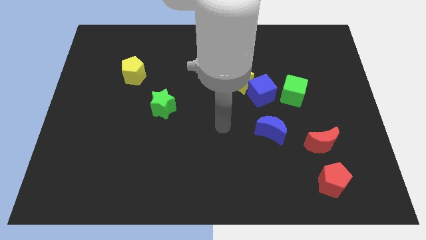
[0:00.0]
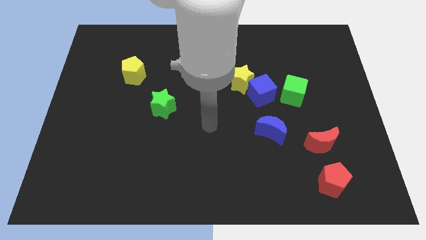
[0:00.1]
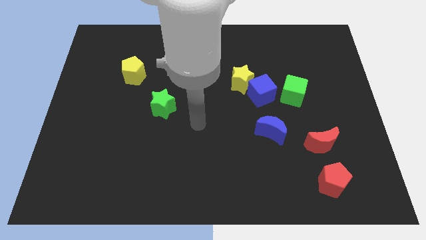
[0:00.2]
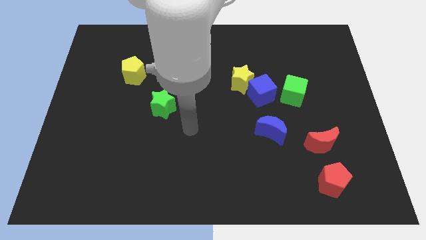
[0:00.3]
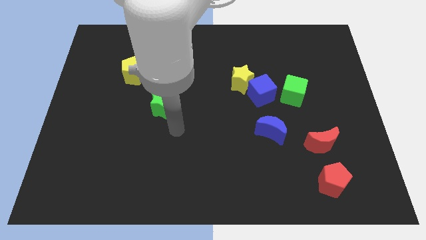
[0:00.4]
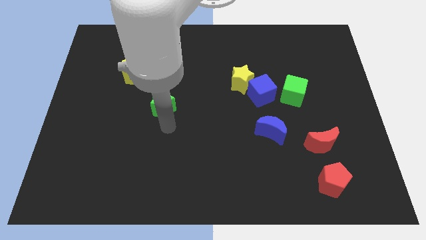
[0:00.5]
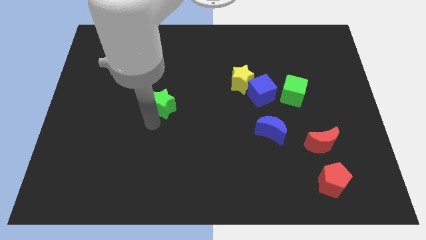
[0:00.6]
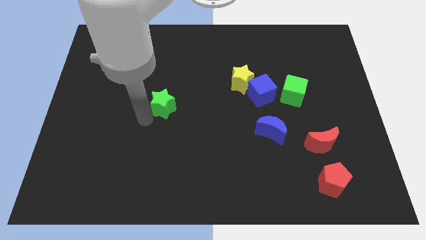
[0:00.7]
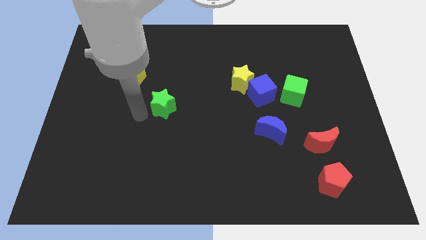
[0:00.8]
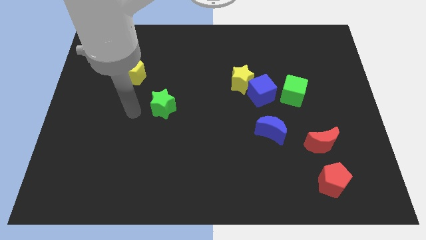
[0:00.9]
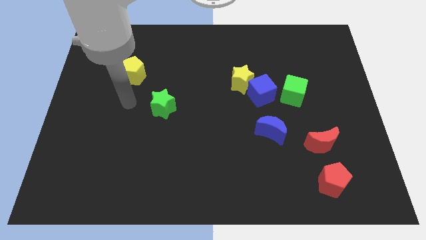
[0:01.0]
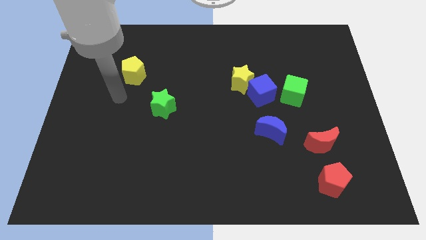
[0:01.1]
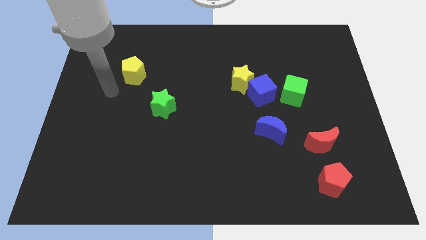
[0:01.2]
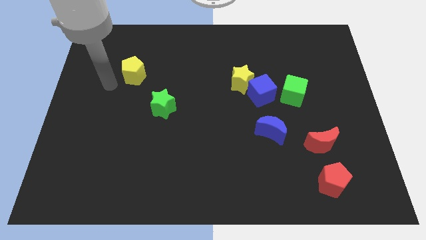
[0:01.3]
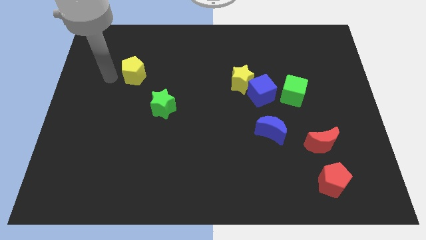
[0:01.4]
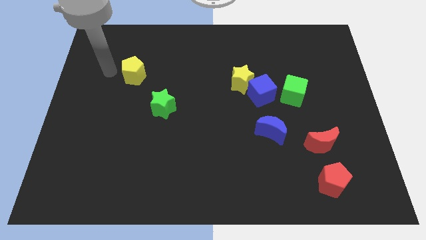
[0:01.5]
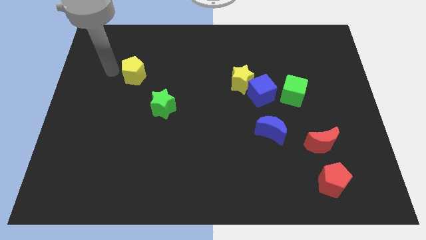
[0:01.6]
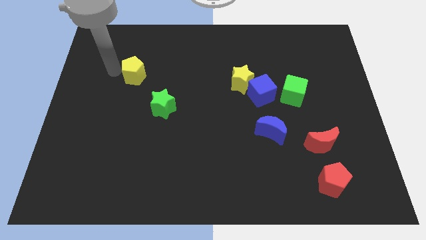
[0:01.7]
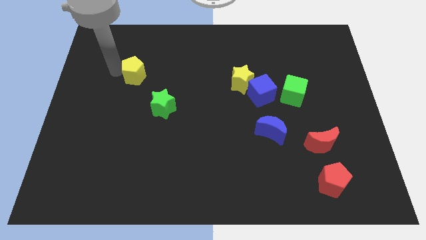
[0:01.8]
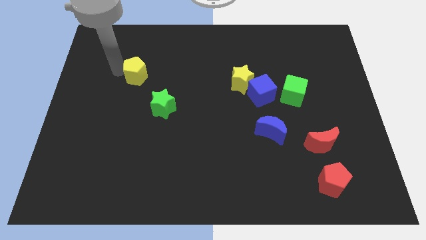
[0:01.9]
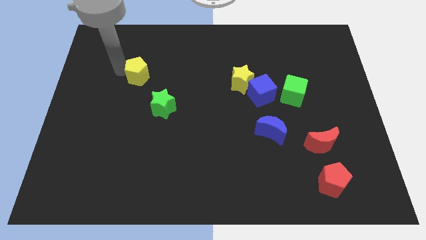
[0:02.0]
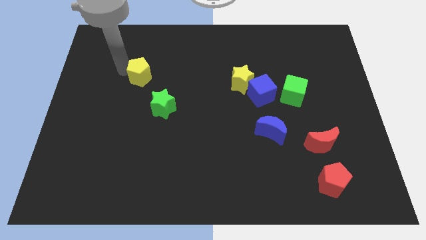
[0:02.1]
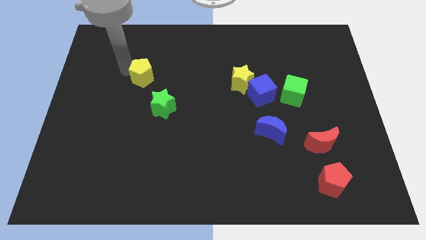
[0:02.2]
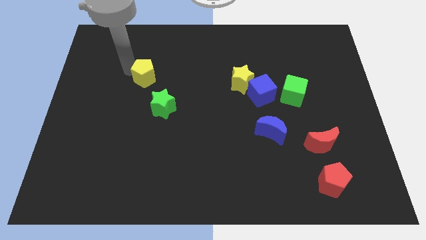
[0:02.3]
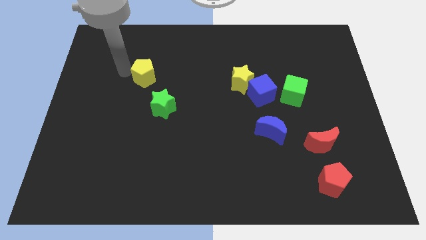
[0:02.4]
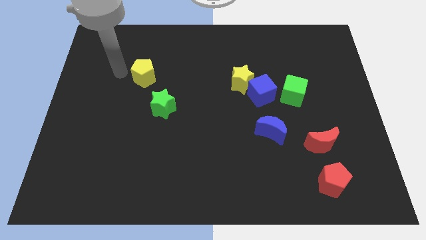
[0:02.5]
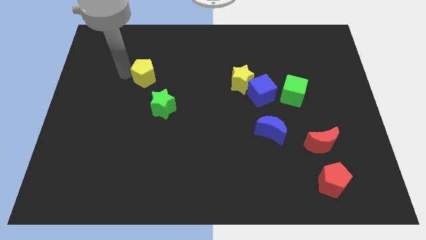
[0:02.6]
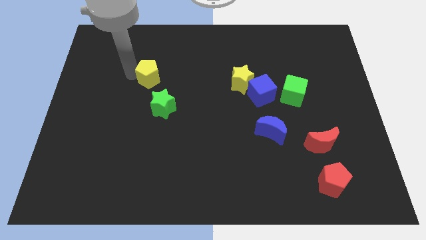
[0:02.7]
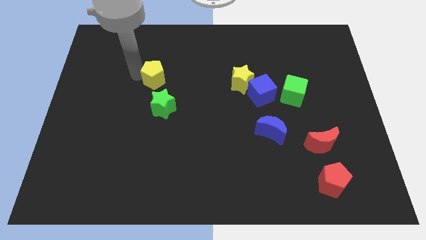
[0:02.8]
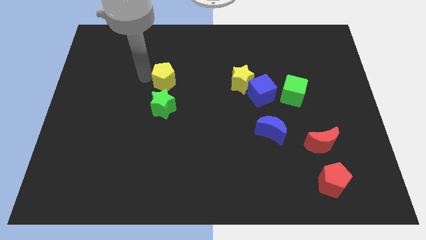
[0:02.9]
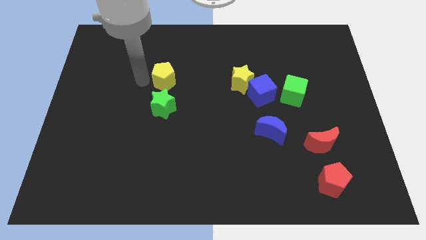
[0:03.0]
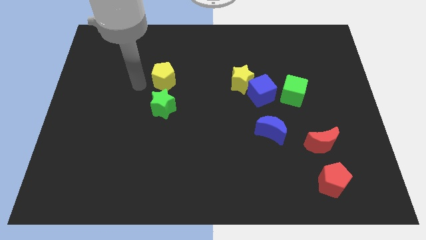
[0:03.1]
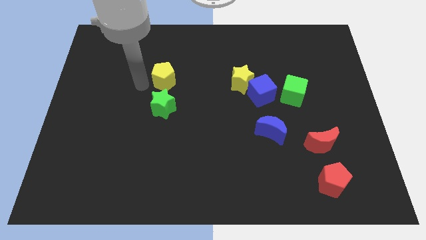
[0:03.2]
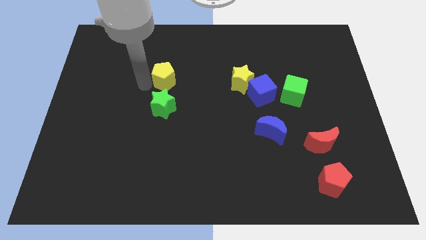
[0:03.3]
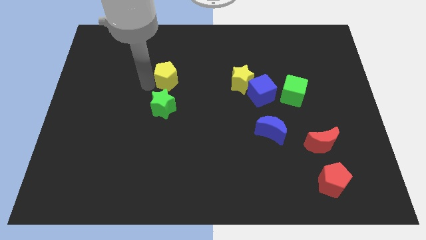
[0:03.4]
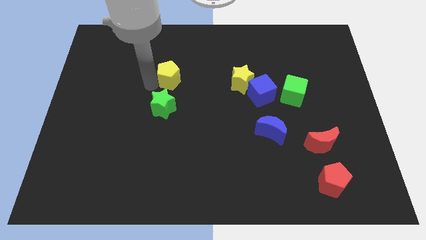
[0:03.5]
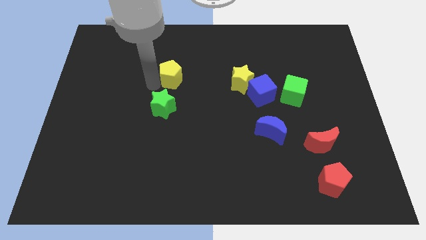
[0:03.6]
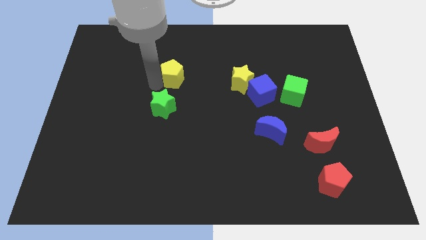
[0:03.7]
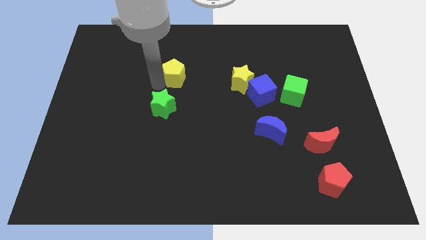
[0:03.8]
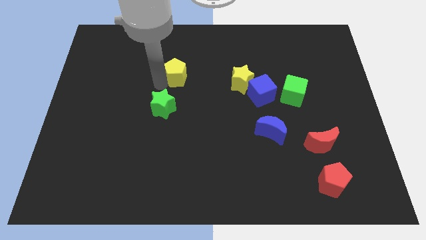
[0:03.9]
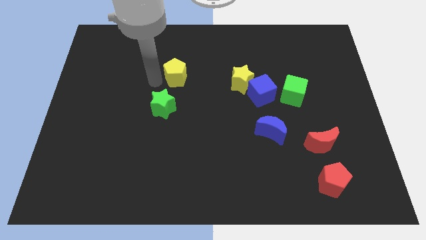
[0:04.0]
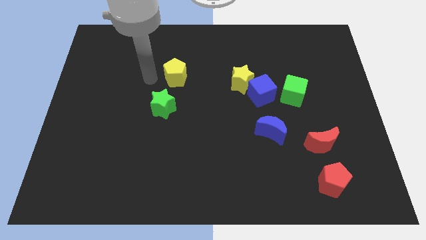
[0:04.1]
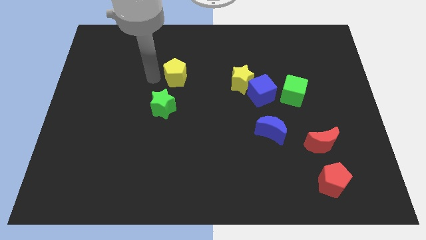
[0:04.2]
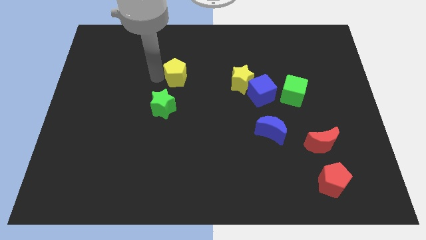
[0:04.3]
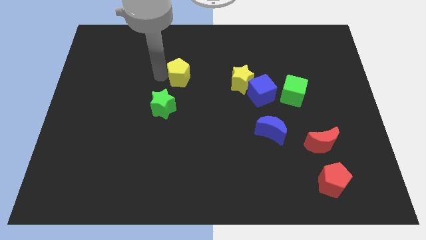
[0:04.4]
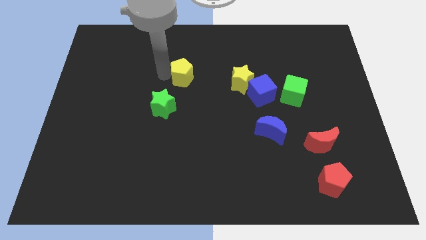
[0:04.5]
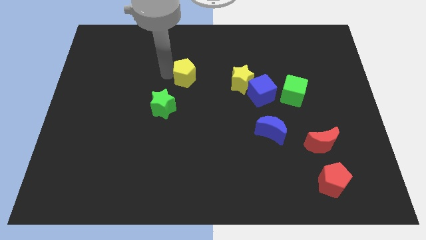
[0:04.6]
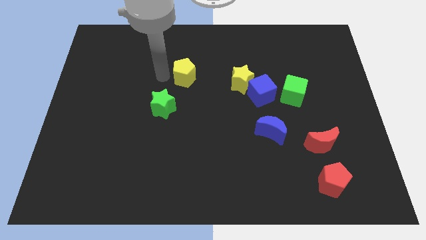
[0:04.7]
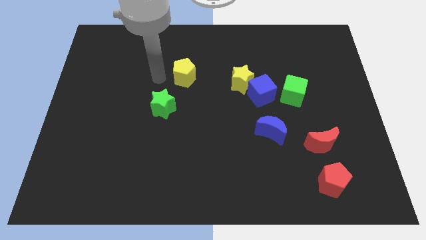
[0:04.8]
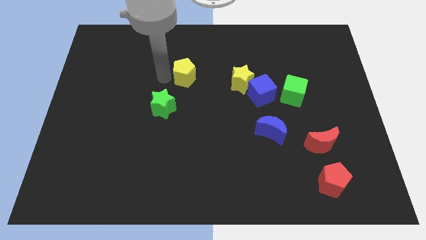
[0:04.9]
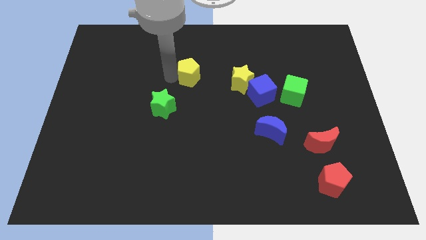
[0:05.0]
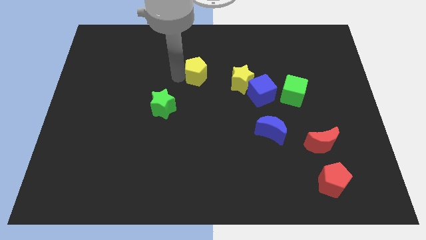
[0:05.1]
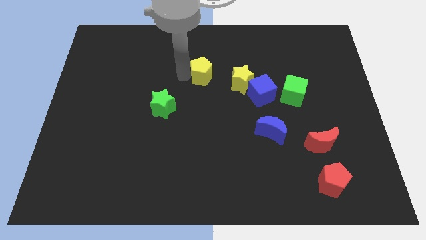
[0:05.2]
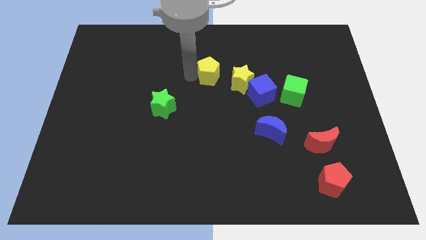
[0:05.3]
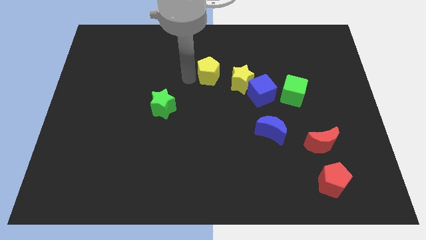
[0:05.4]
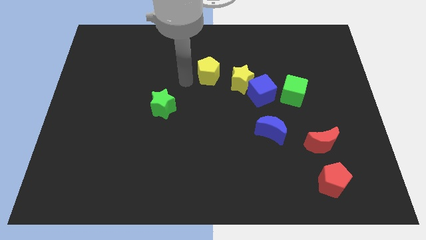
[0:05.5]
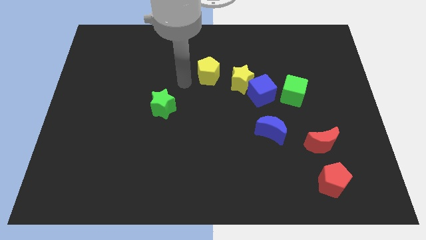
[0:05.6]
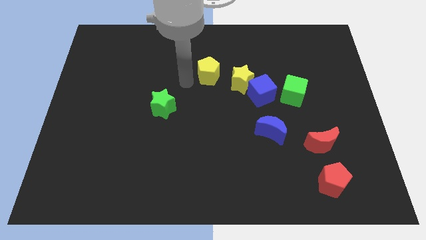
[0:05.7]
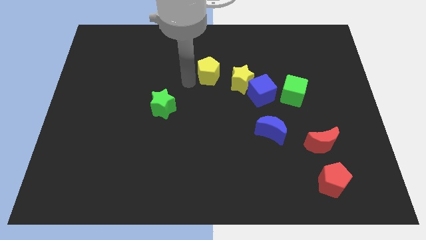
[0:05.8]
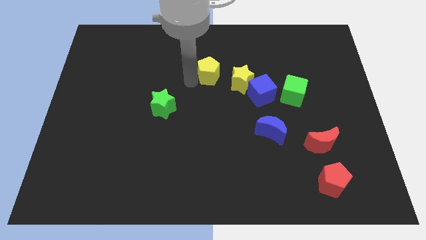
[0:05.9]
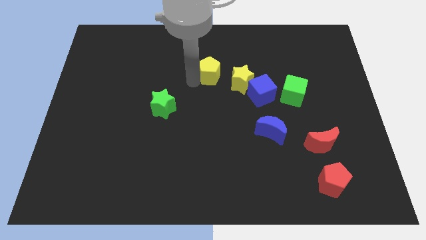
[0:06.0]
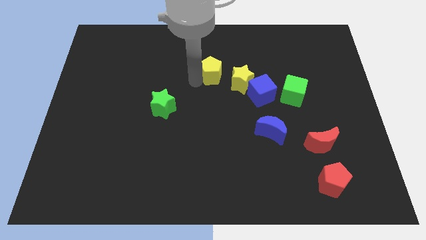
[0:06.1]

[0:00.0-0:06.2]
move the yellow pentagon right

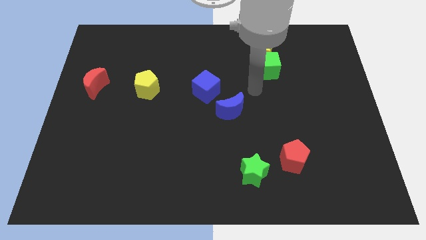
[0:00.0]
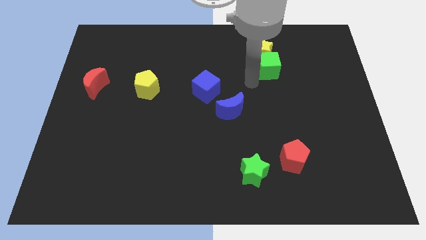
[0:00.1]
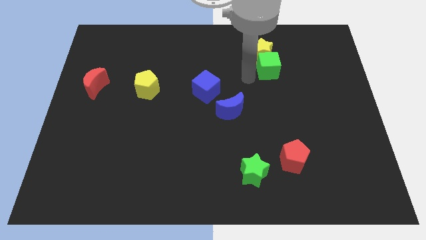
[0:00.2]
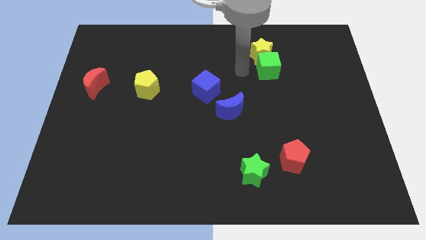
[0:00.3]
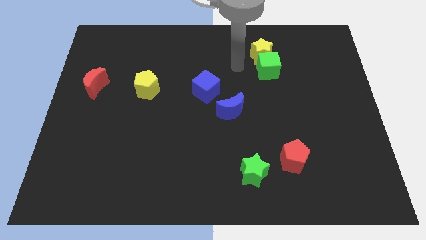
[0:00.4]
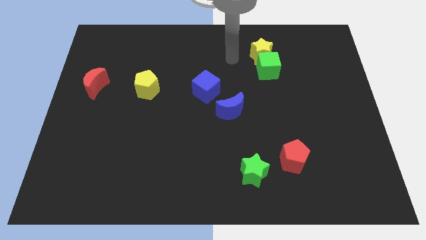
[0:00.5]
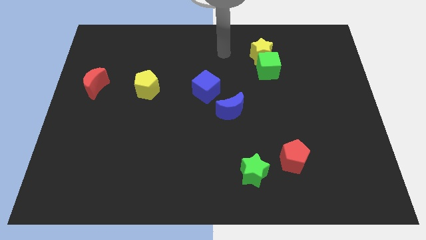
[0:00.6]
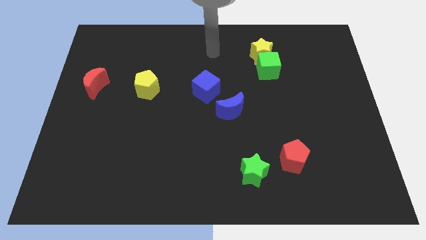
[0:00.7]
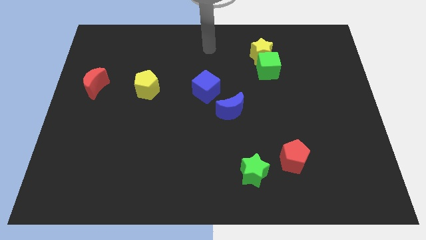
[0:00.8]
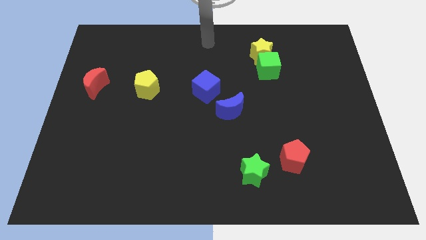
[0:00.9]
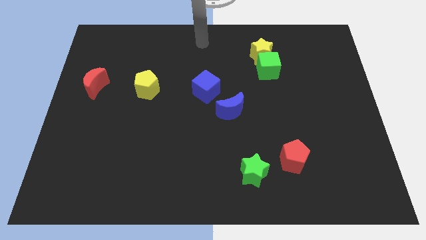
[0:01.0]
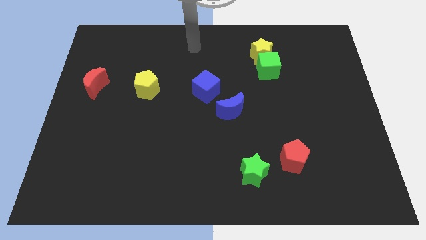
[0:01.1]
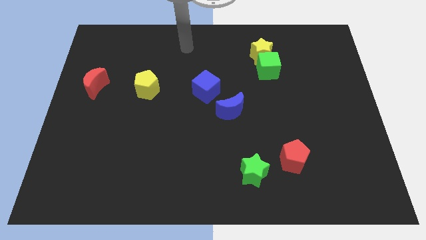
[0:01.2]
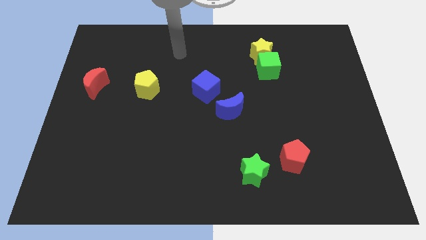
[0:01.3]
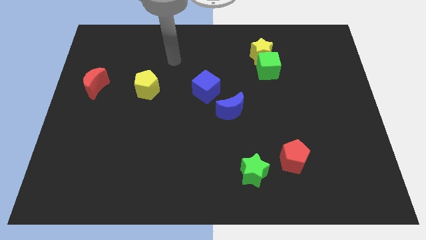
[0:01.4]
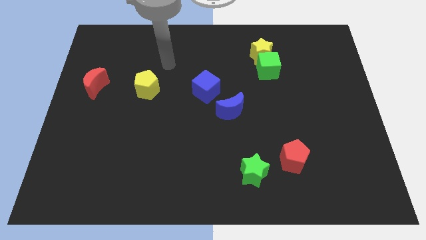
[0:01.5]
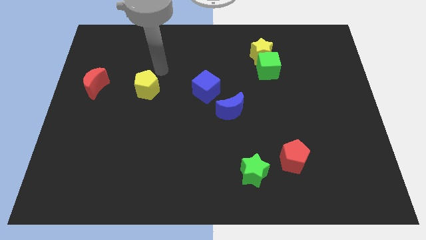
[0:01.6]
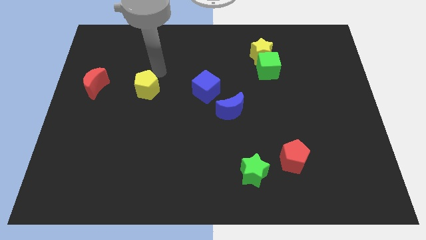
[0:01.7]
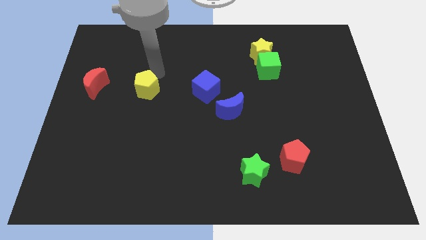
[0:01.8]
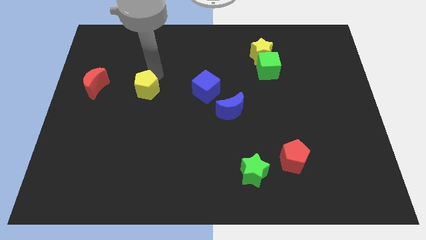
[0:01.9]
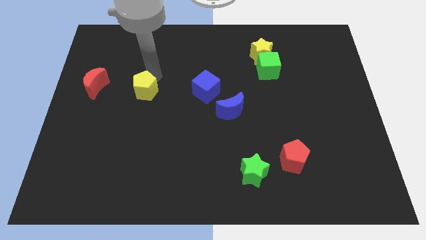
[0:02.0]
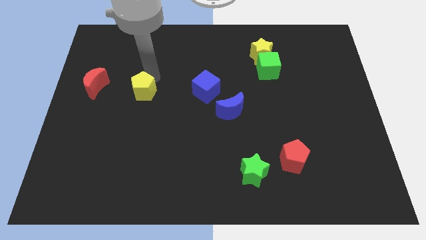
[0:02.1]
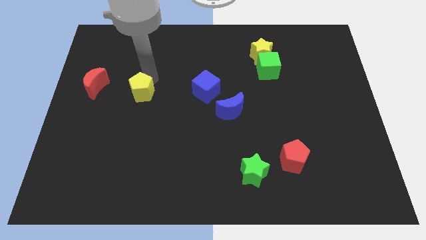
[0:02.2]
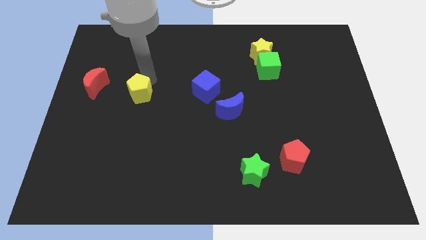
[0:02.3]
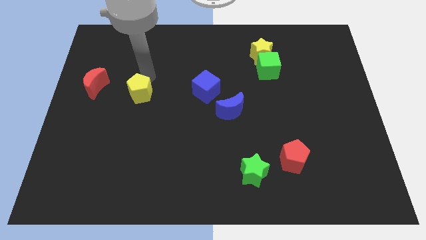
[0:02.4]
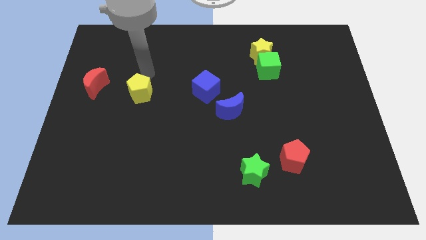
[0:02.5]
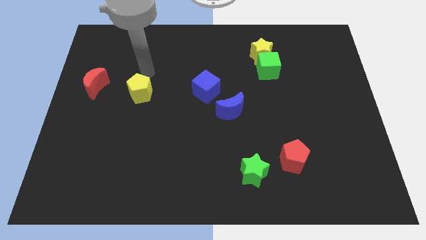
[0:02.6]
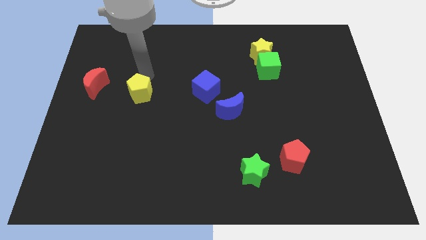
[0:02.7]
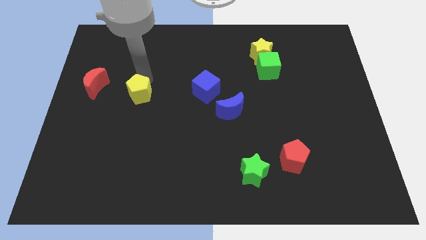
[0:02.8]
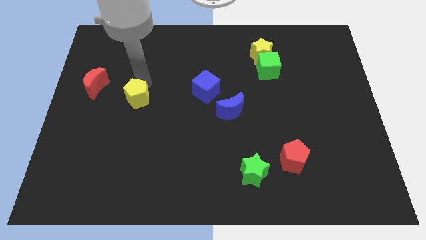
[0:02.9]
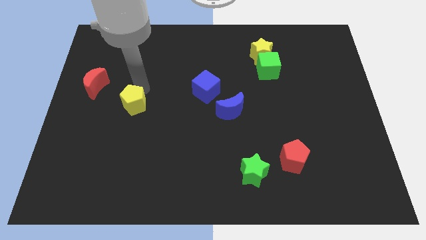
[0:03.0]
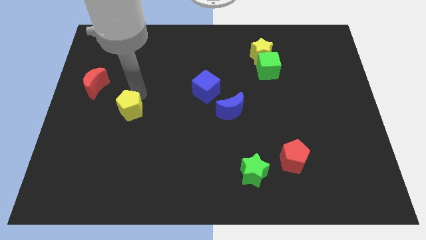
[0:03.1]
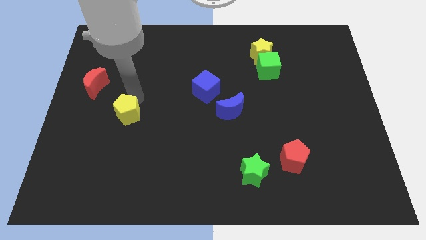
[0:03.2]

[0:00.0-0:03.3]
push the yellow pentagon slightly downwards
